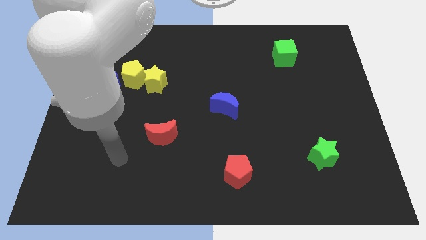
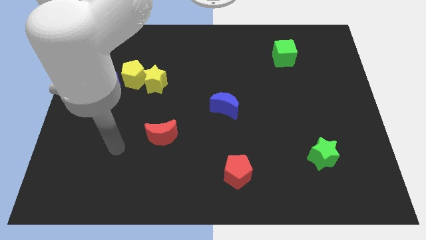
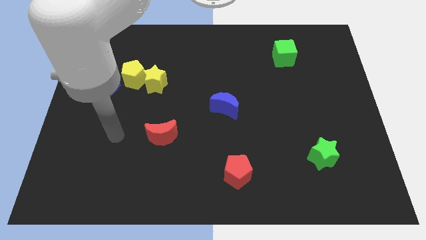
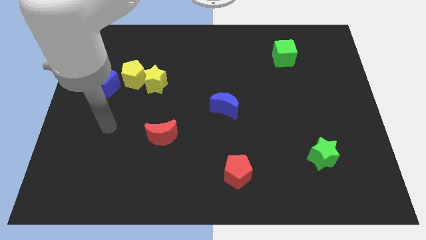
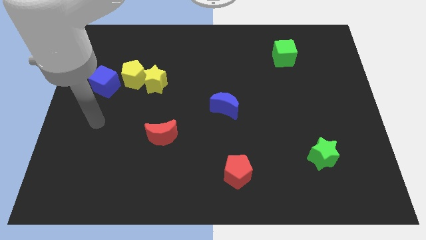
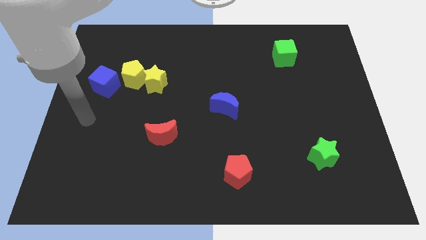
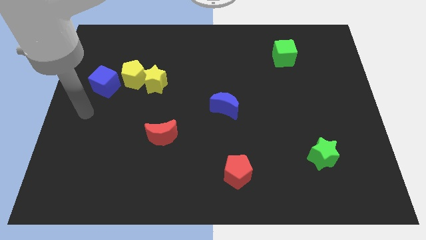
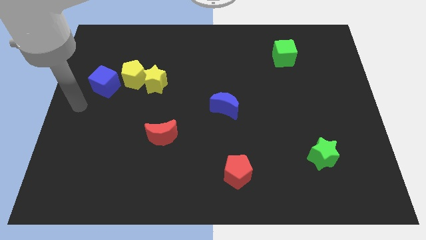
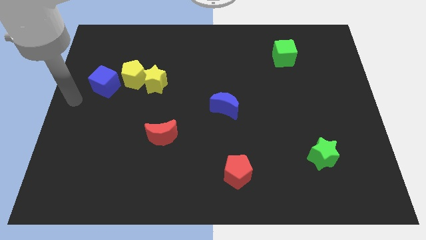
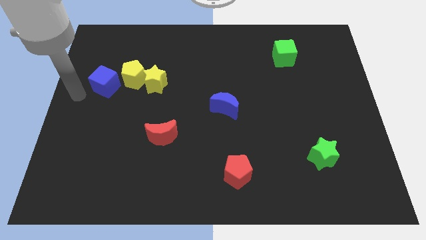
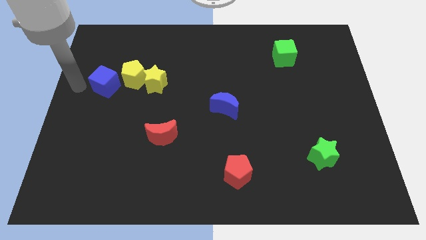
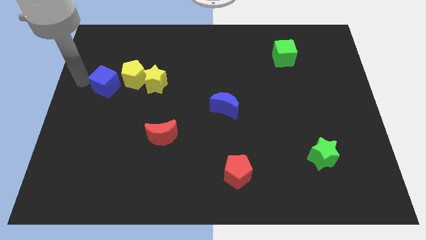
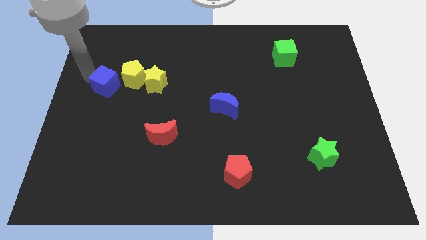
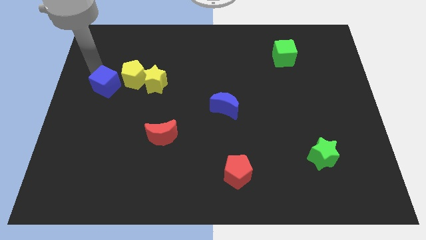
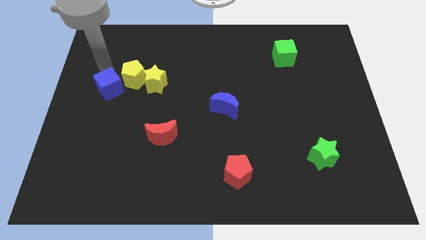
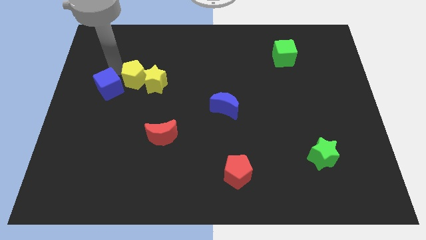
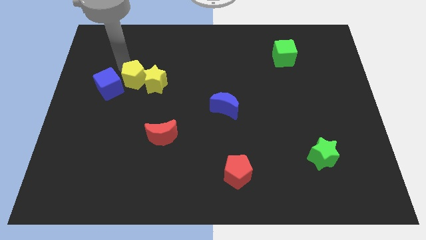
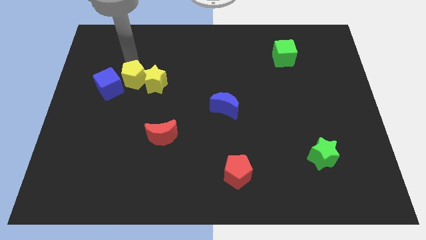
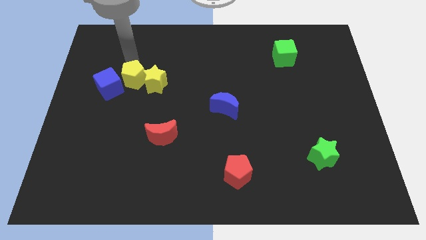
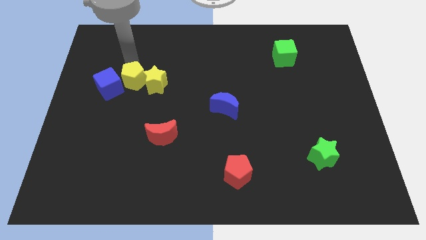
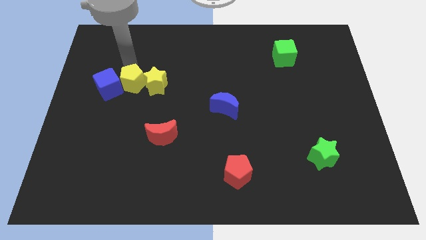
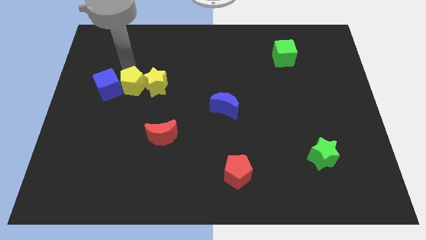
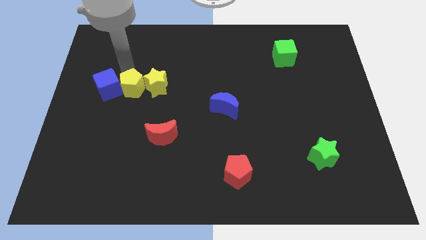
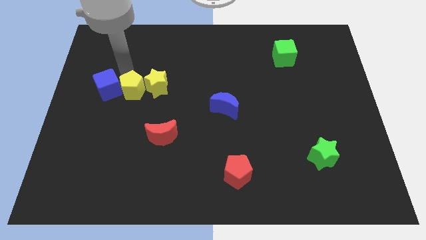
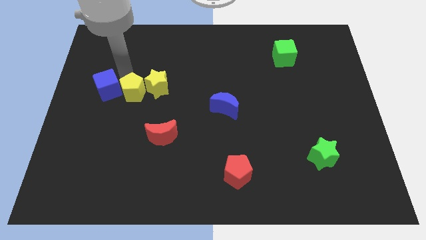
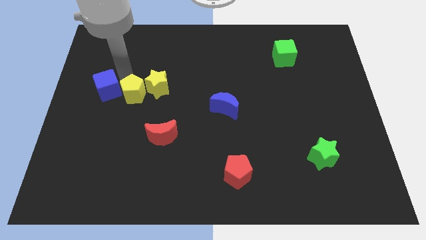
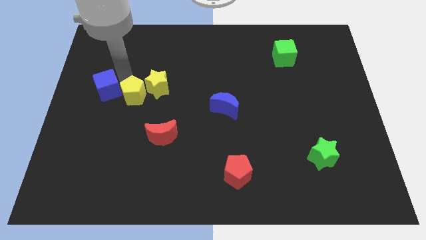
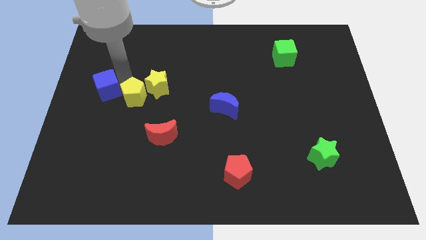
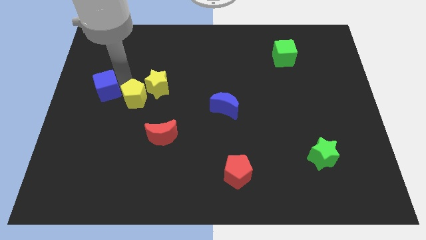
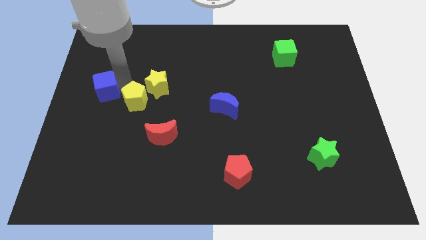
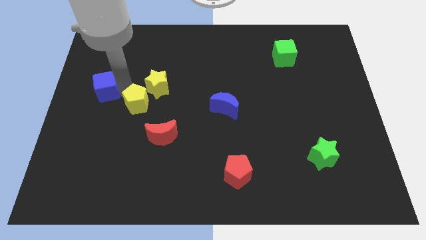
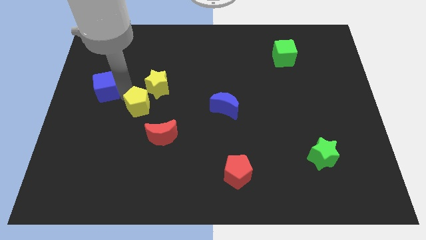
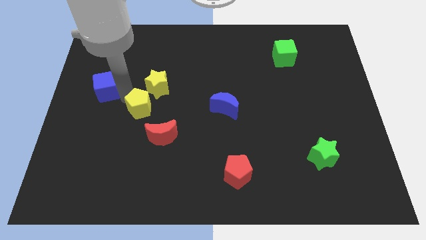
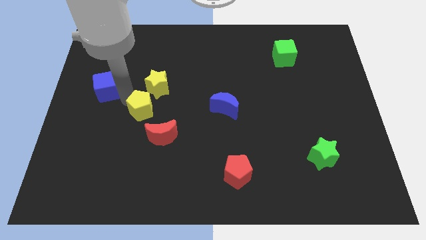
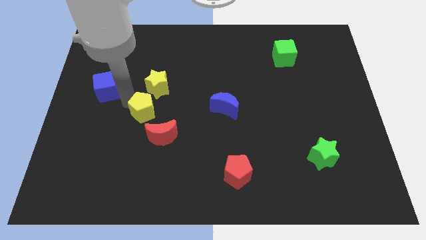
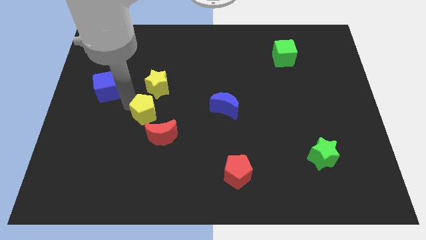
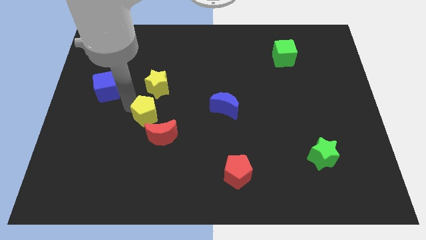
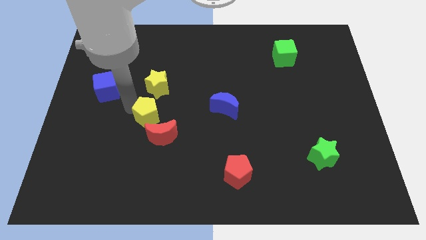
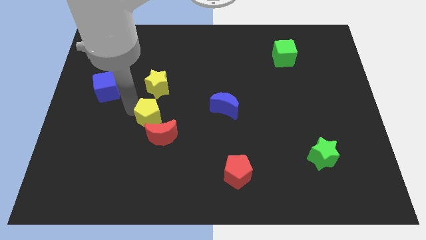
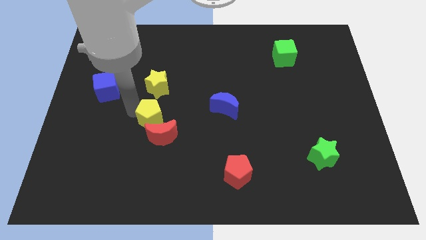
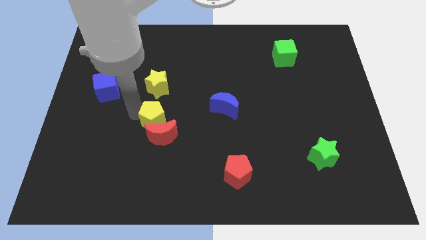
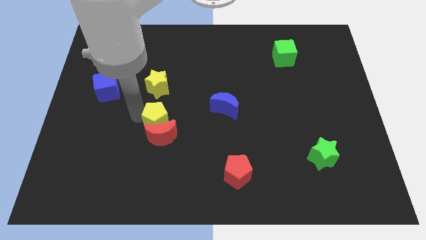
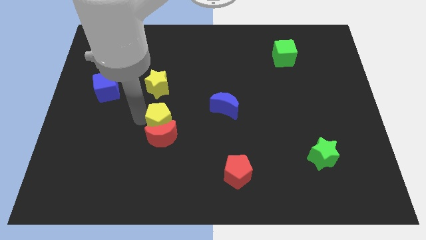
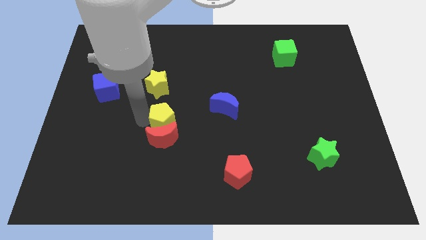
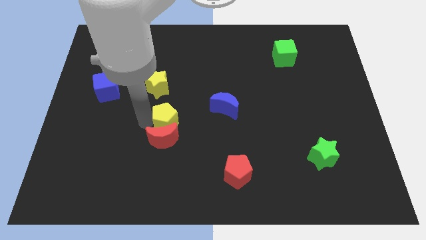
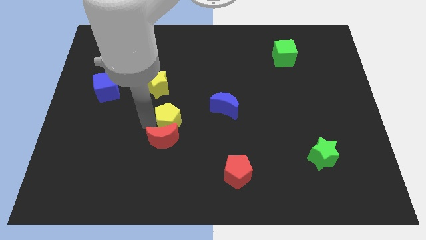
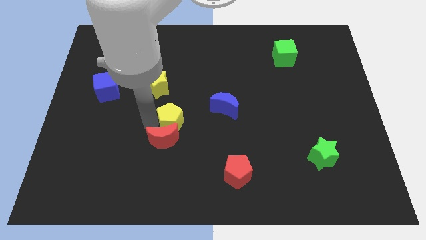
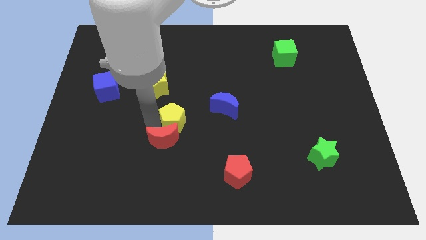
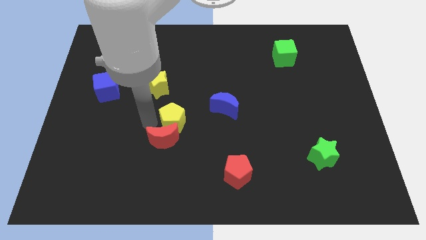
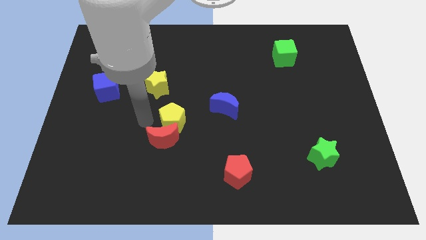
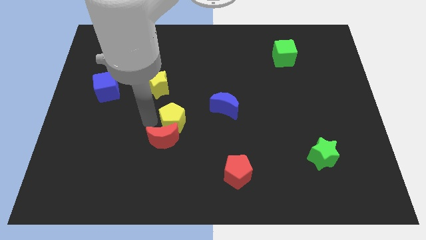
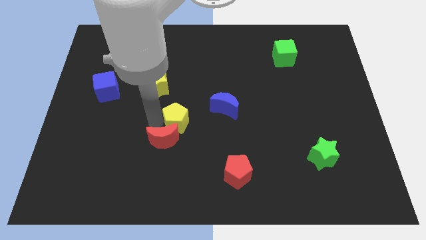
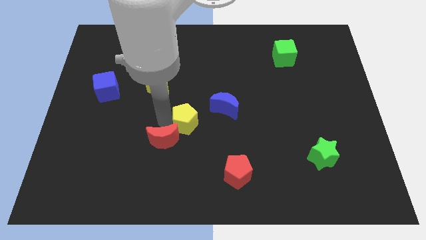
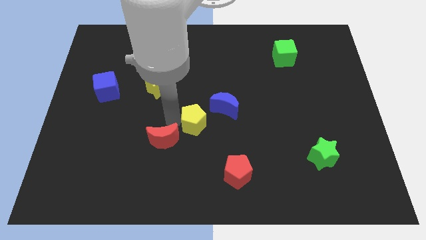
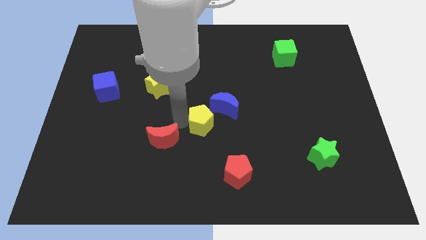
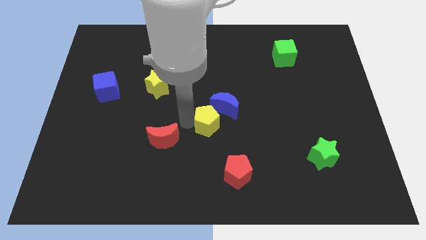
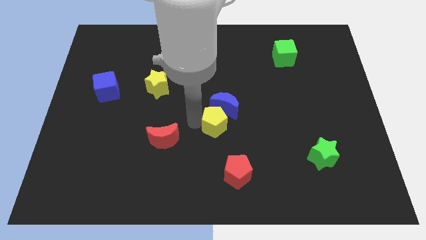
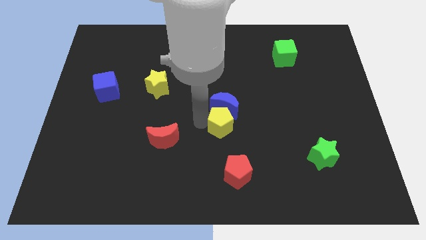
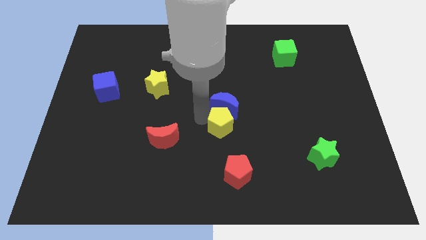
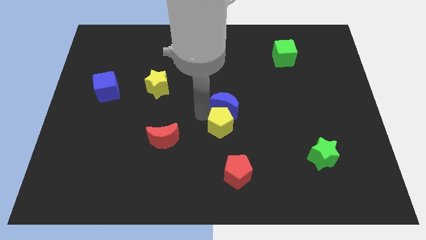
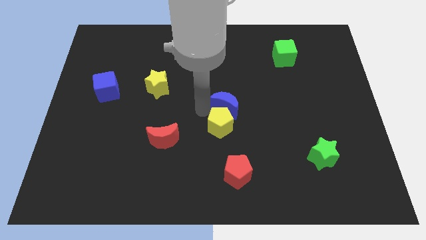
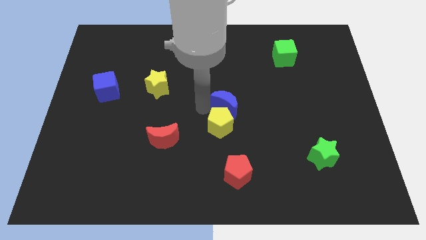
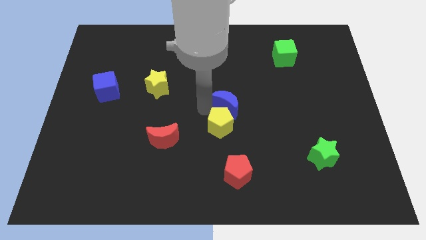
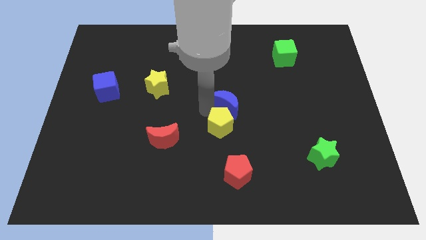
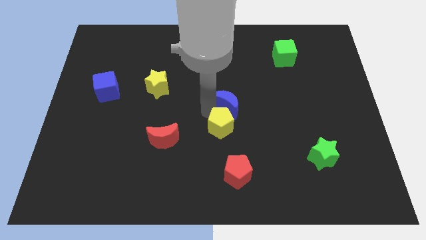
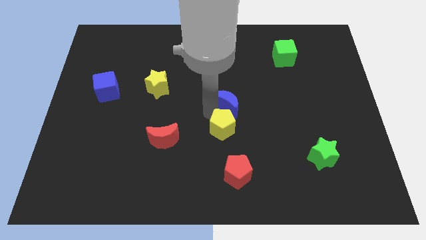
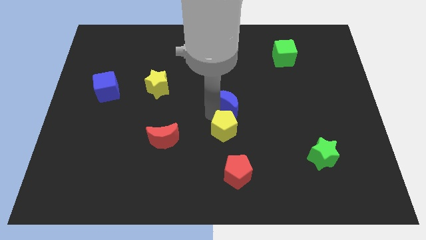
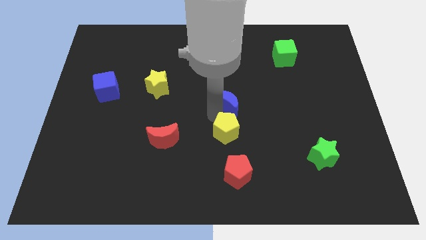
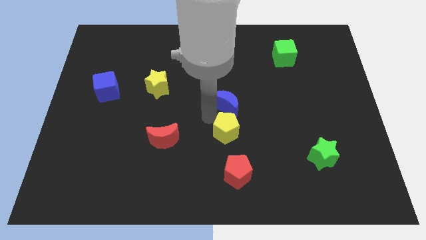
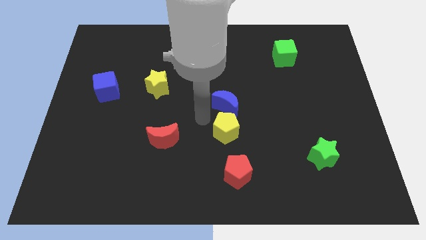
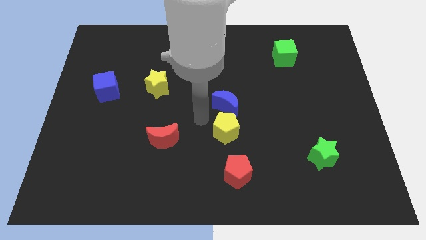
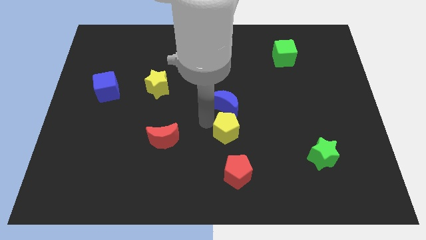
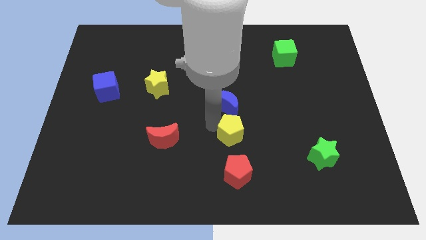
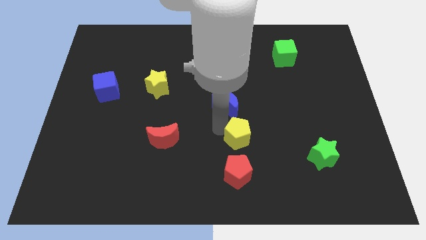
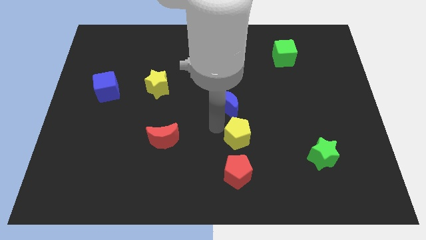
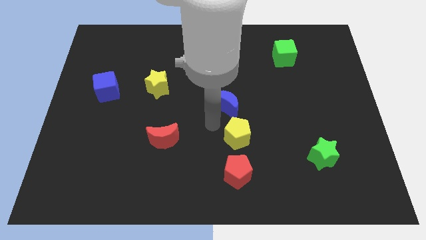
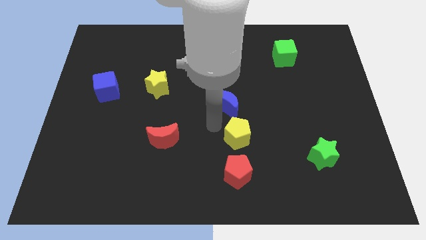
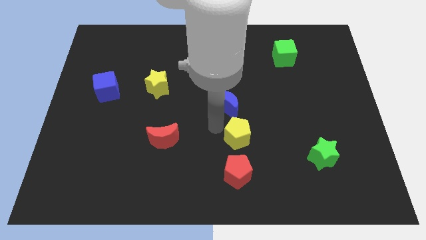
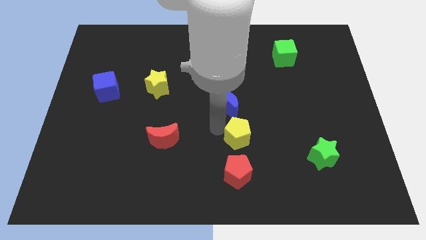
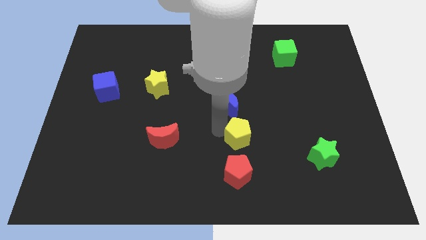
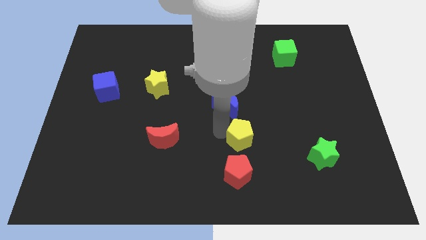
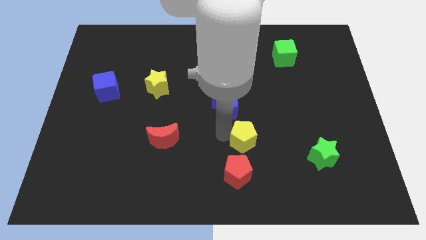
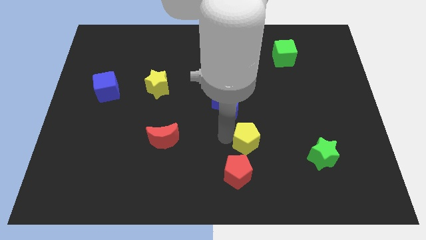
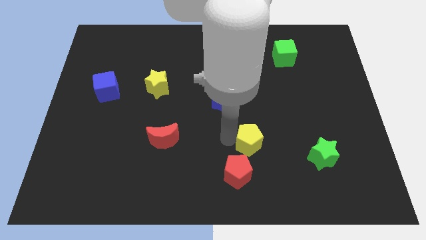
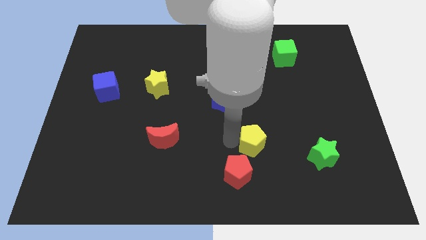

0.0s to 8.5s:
move the yellow pentagon to the left side of the green star
